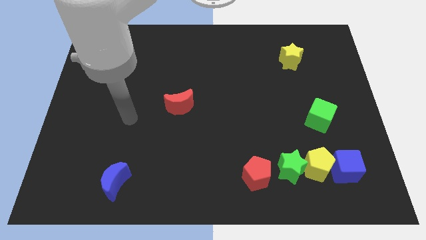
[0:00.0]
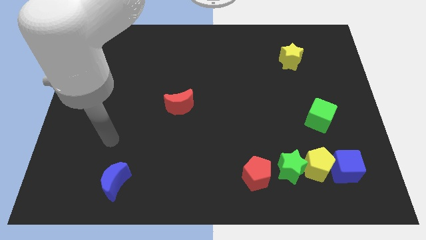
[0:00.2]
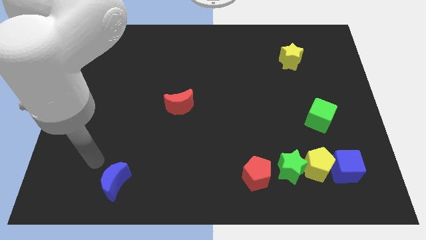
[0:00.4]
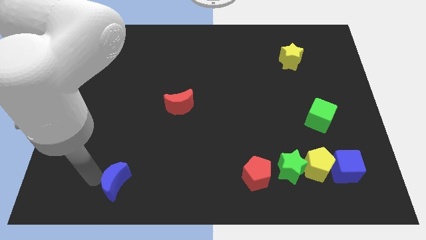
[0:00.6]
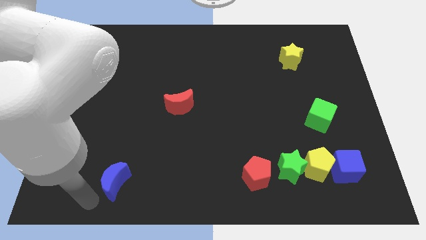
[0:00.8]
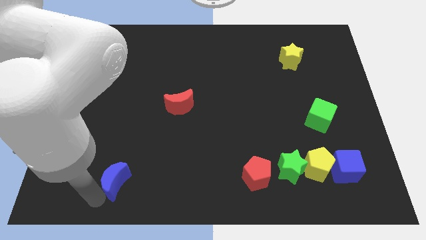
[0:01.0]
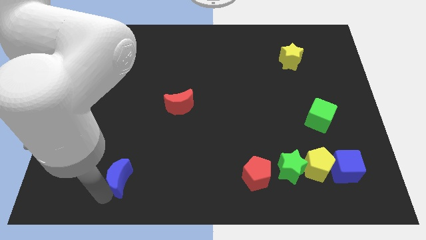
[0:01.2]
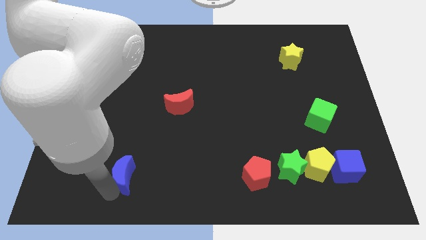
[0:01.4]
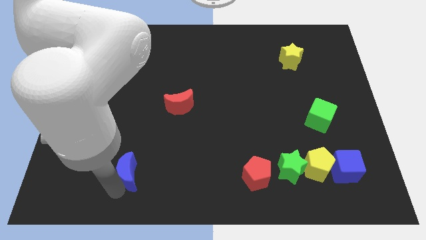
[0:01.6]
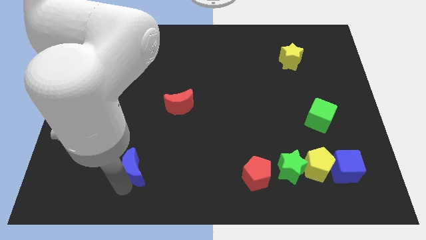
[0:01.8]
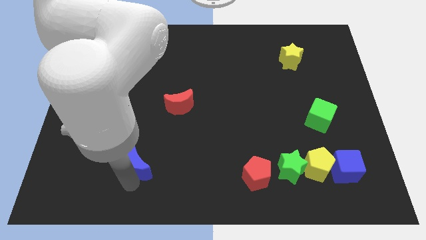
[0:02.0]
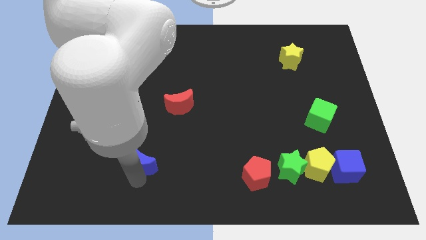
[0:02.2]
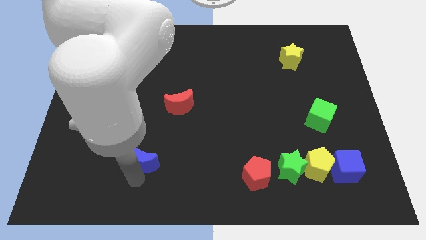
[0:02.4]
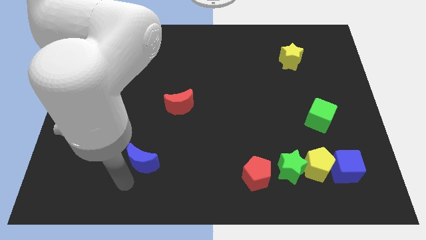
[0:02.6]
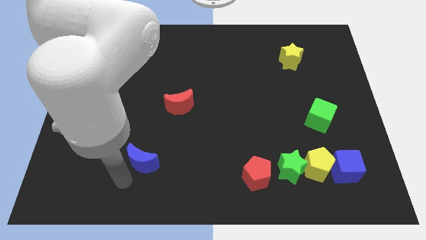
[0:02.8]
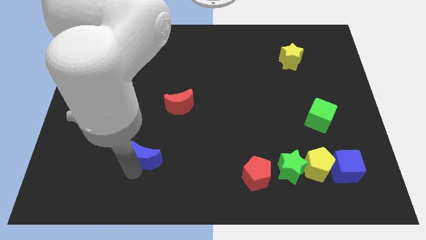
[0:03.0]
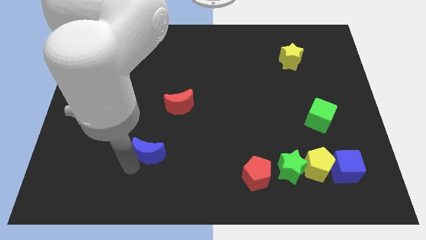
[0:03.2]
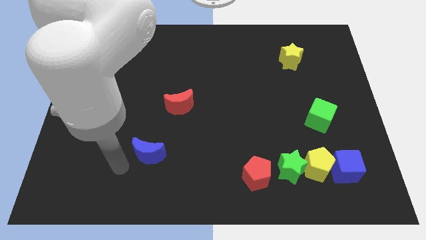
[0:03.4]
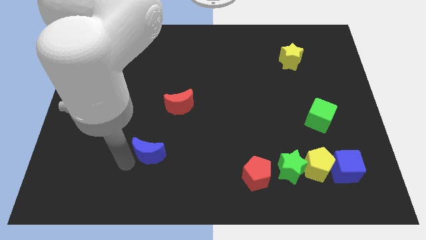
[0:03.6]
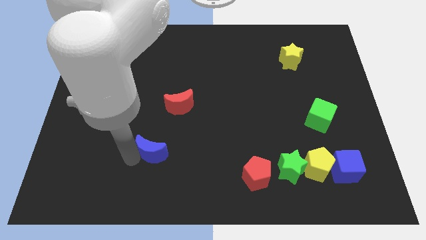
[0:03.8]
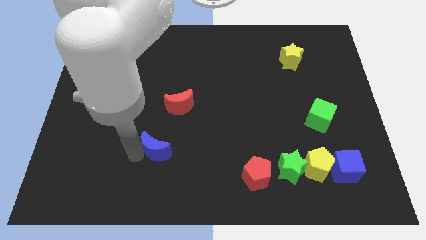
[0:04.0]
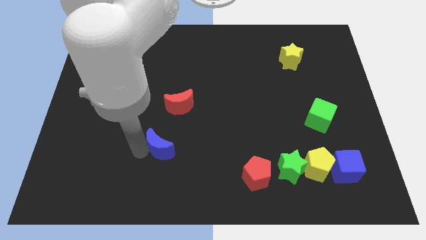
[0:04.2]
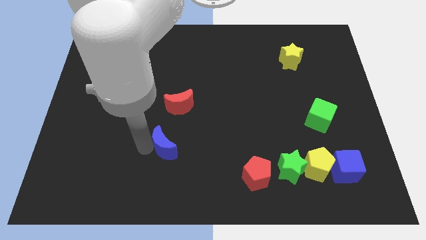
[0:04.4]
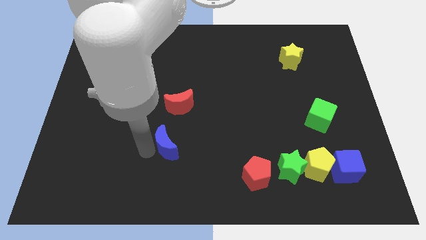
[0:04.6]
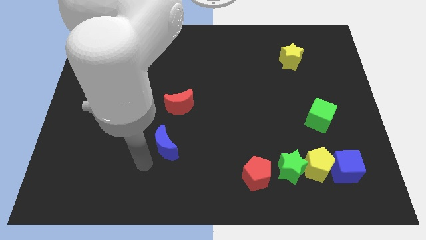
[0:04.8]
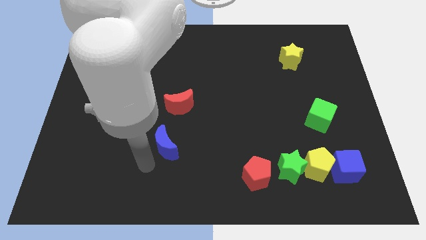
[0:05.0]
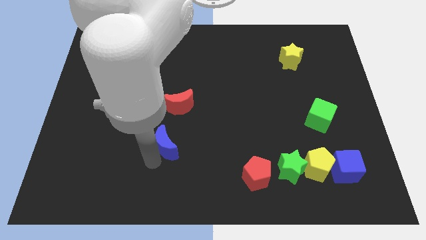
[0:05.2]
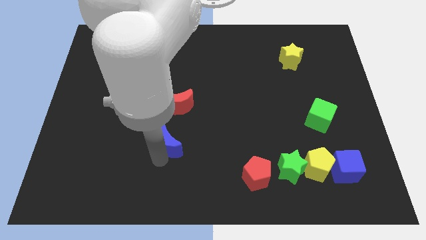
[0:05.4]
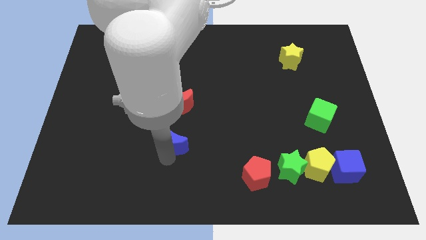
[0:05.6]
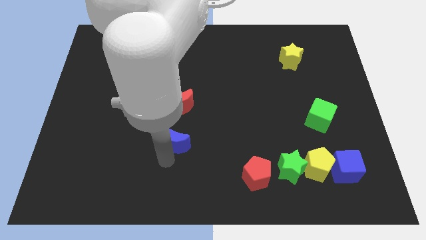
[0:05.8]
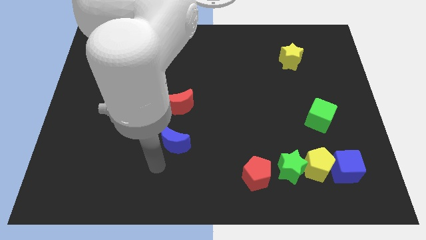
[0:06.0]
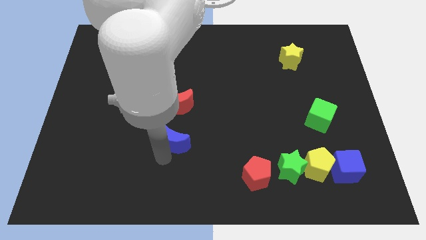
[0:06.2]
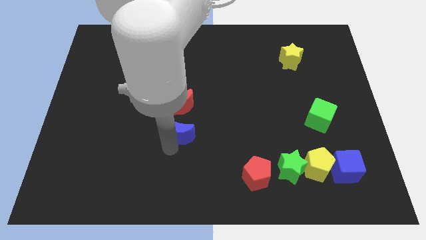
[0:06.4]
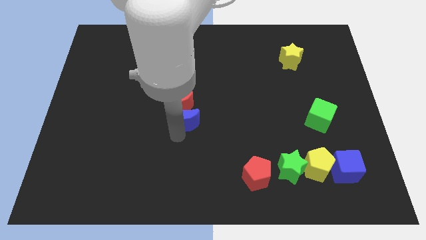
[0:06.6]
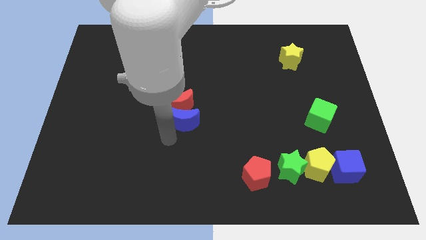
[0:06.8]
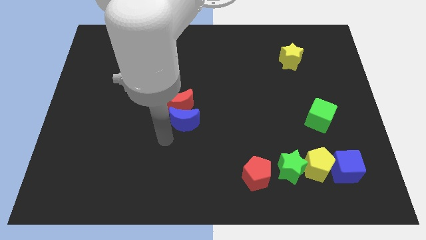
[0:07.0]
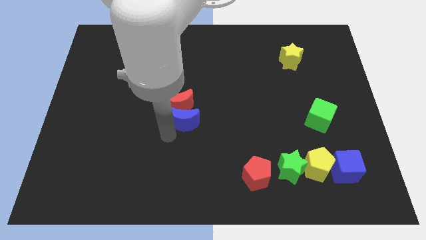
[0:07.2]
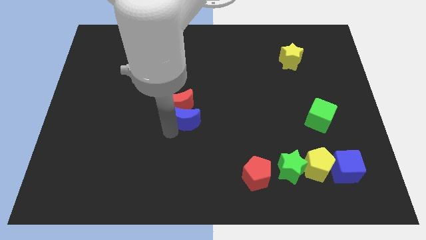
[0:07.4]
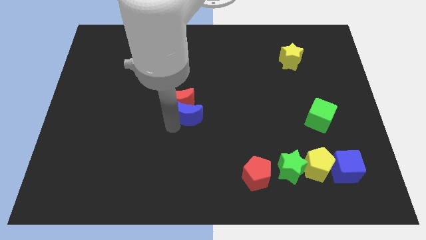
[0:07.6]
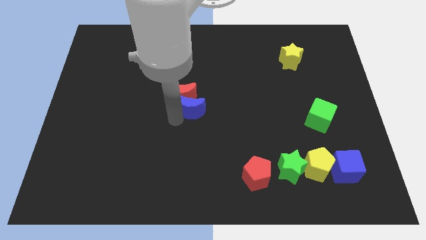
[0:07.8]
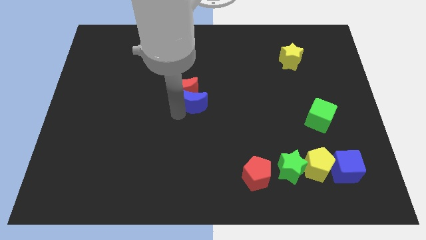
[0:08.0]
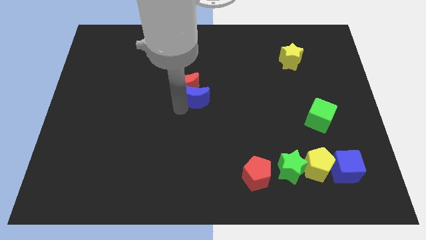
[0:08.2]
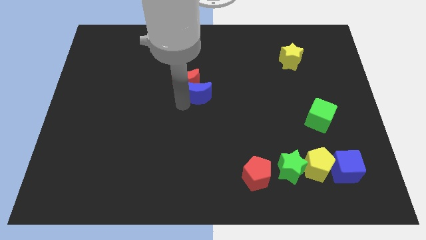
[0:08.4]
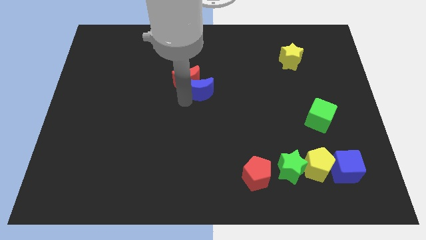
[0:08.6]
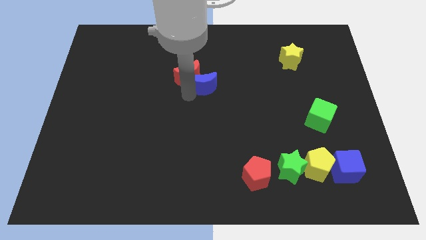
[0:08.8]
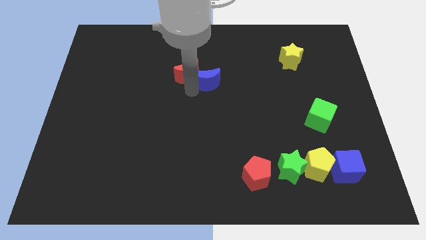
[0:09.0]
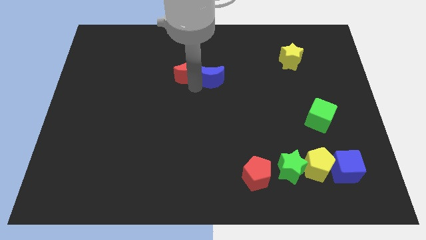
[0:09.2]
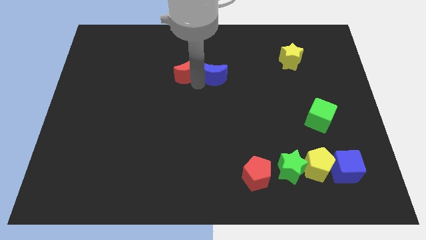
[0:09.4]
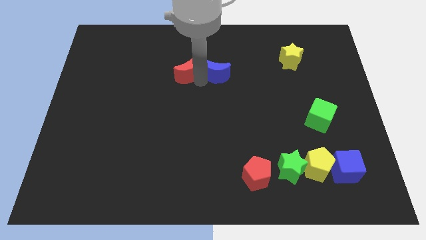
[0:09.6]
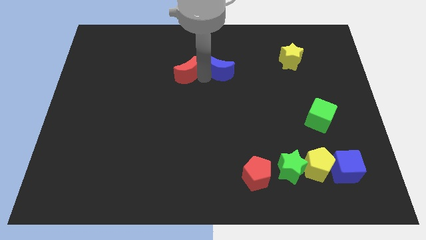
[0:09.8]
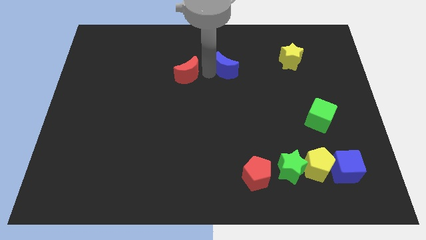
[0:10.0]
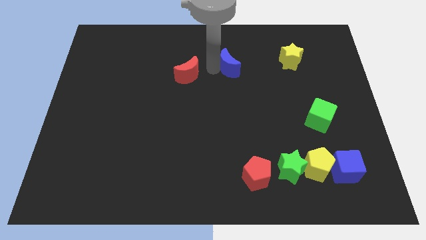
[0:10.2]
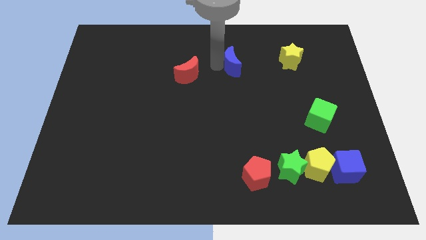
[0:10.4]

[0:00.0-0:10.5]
slide the blue moon to the left of the yellow star
